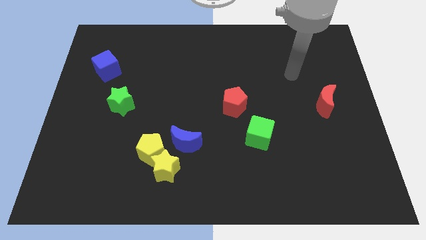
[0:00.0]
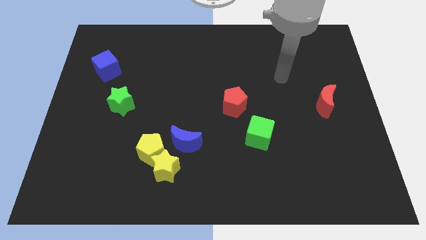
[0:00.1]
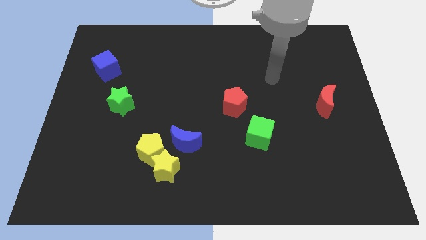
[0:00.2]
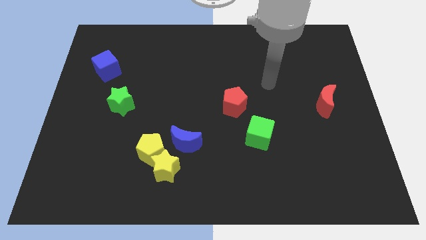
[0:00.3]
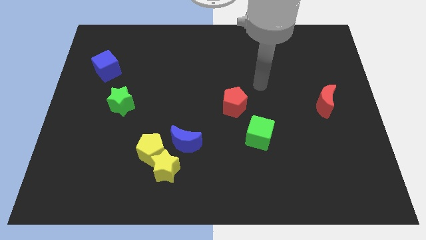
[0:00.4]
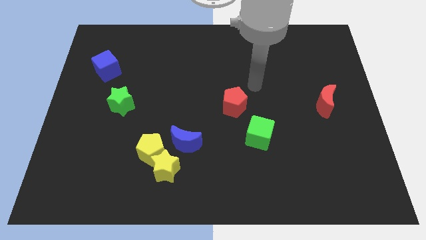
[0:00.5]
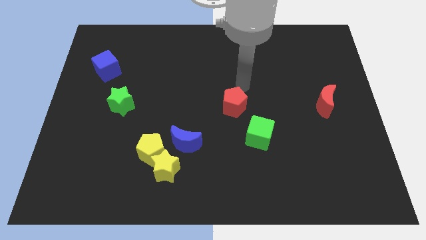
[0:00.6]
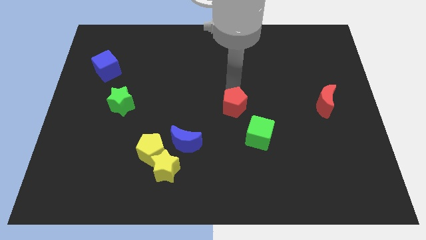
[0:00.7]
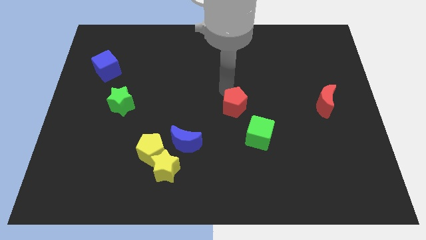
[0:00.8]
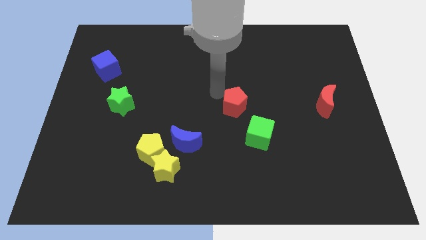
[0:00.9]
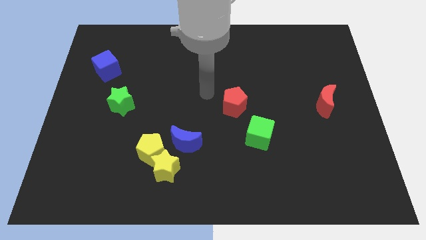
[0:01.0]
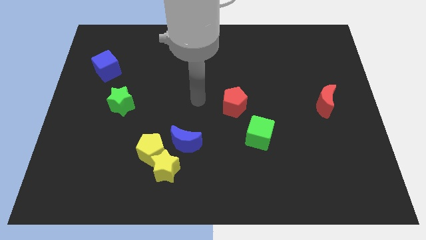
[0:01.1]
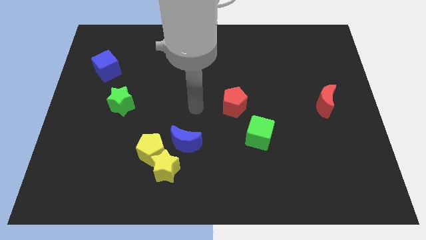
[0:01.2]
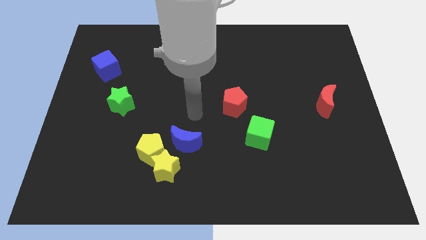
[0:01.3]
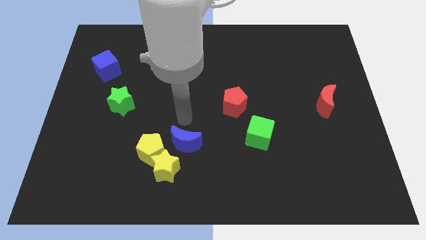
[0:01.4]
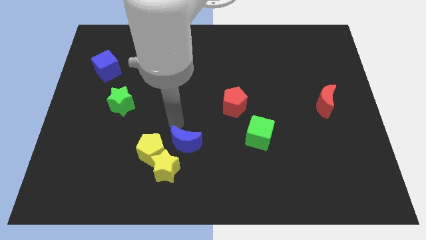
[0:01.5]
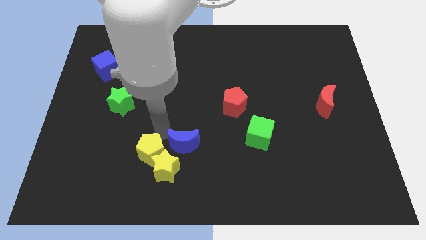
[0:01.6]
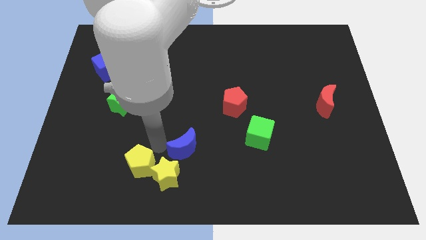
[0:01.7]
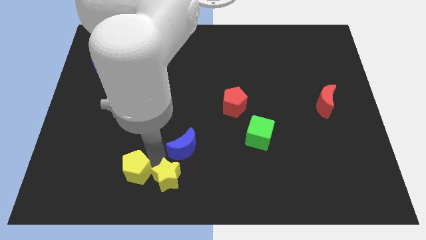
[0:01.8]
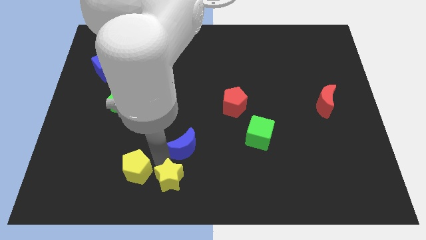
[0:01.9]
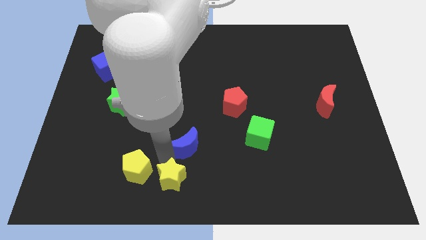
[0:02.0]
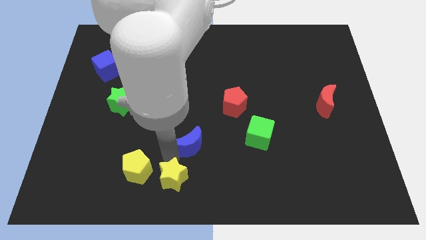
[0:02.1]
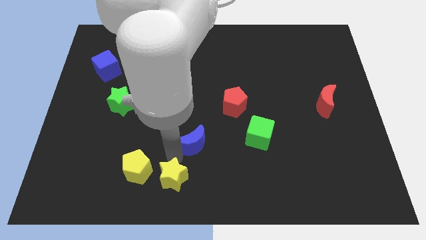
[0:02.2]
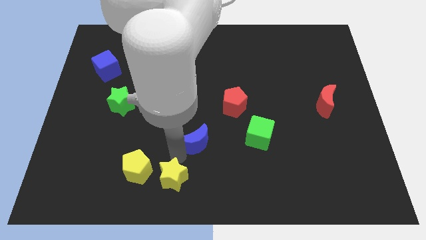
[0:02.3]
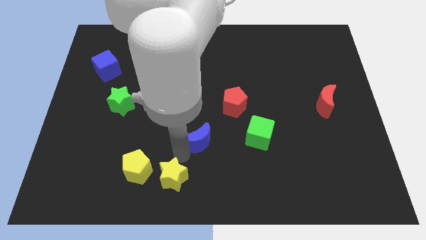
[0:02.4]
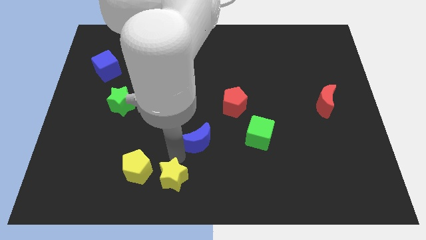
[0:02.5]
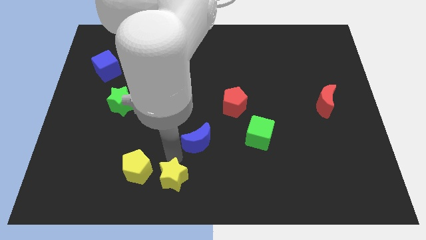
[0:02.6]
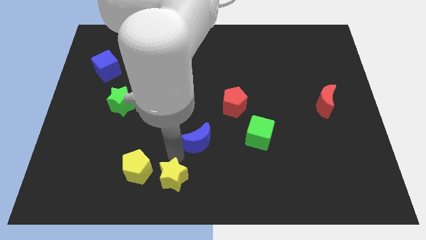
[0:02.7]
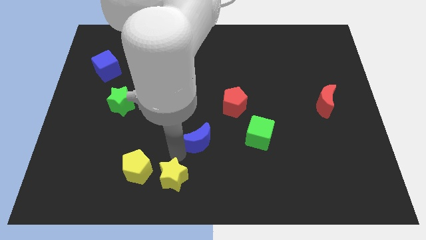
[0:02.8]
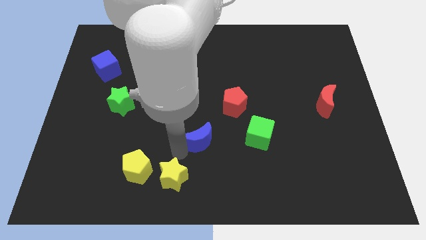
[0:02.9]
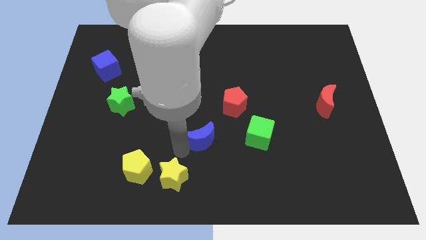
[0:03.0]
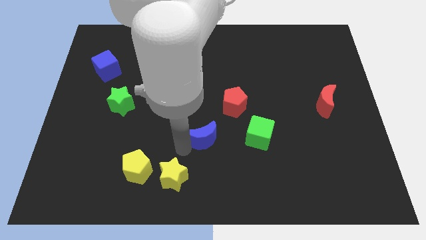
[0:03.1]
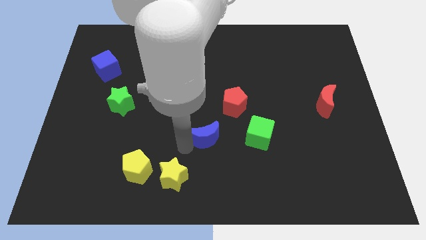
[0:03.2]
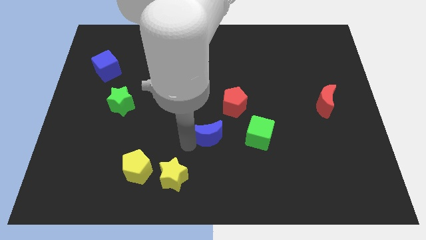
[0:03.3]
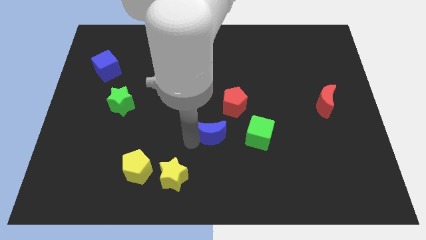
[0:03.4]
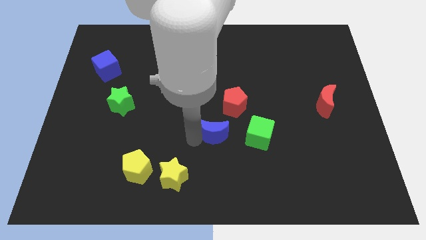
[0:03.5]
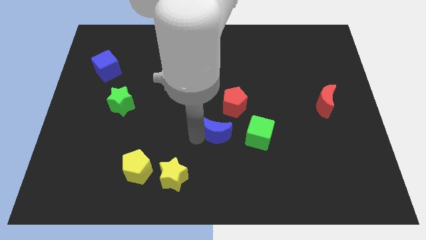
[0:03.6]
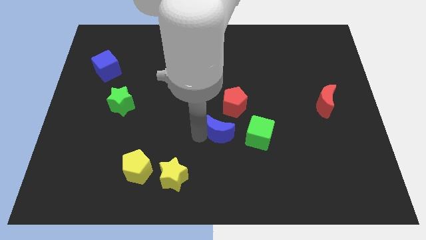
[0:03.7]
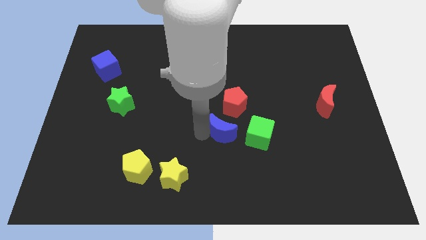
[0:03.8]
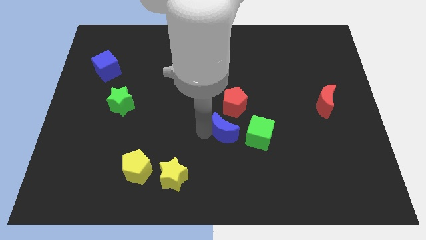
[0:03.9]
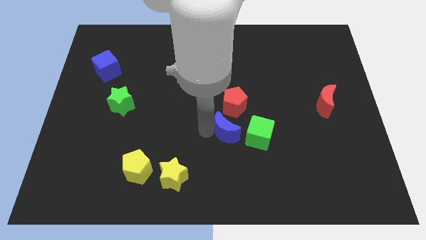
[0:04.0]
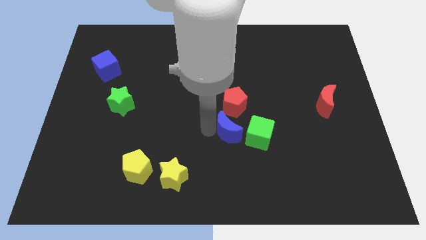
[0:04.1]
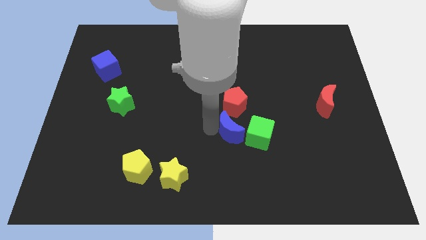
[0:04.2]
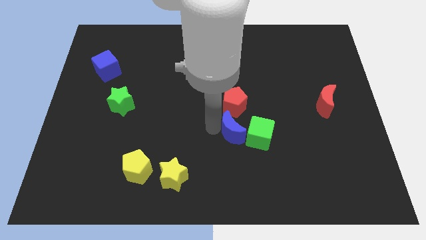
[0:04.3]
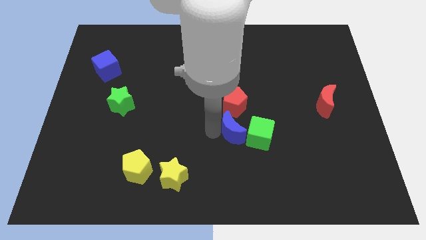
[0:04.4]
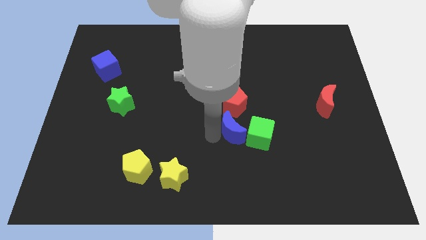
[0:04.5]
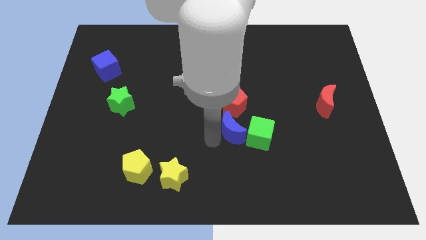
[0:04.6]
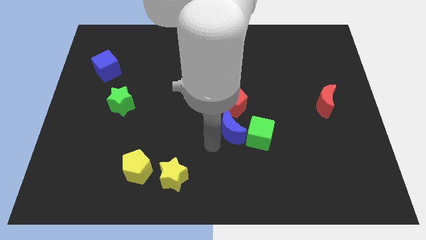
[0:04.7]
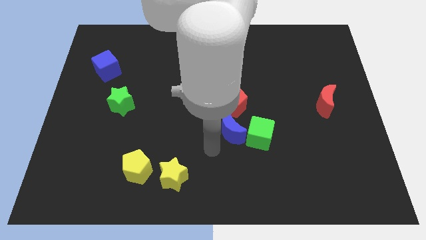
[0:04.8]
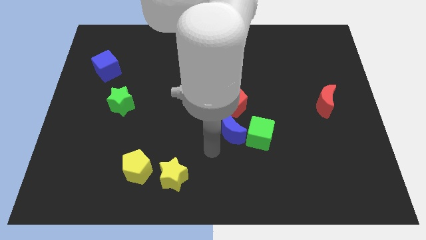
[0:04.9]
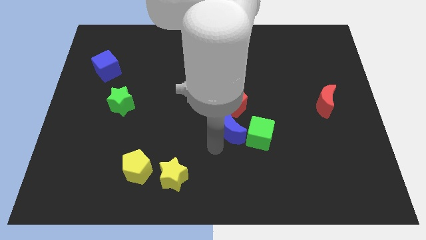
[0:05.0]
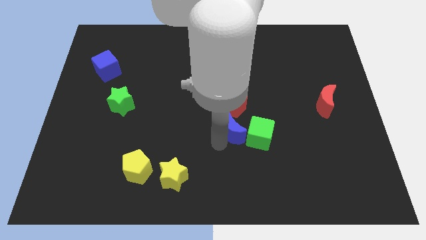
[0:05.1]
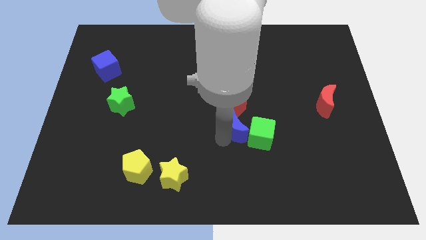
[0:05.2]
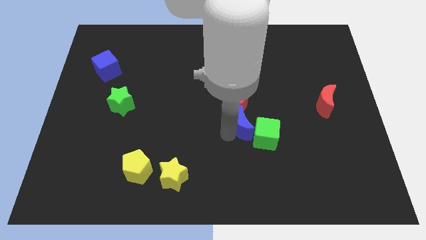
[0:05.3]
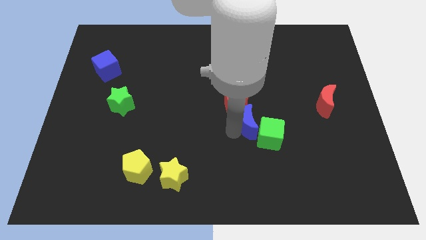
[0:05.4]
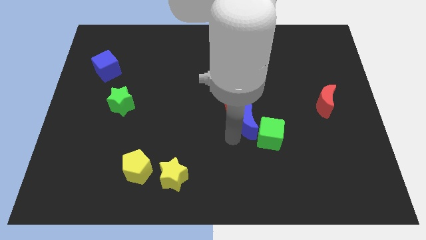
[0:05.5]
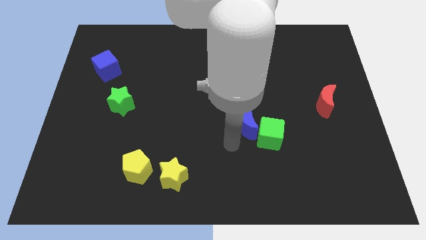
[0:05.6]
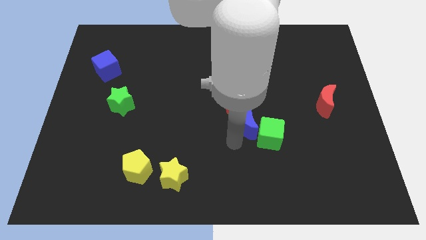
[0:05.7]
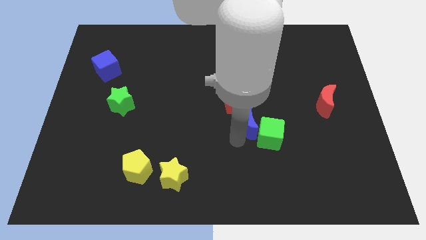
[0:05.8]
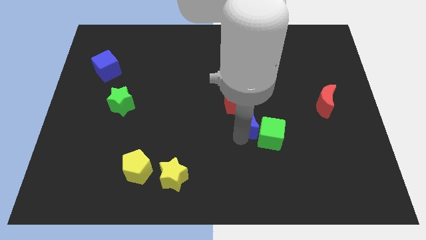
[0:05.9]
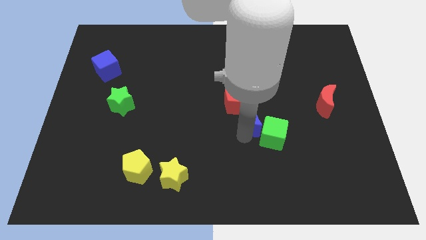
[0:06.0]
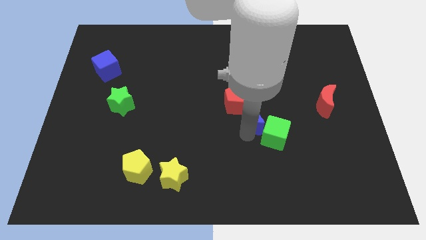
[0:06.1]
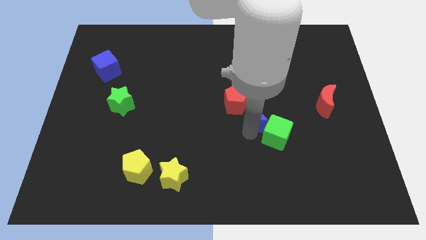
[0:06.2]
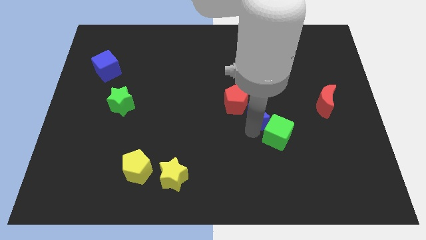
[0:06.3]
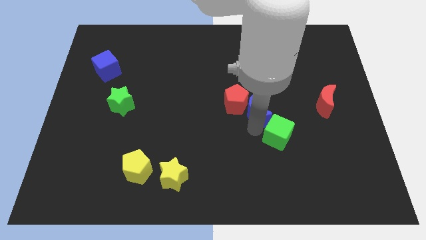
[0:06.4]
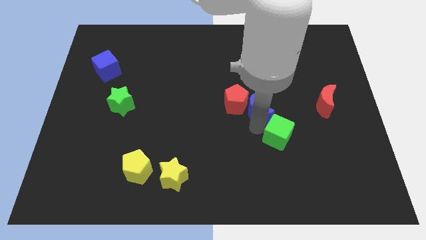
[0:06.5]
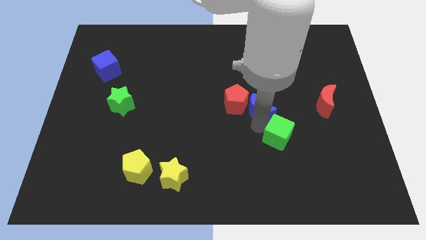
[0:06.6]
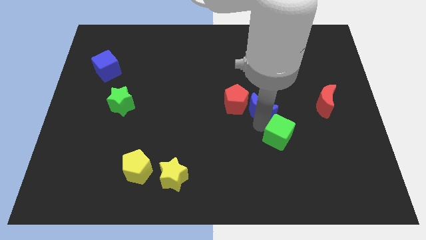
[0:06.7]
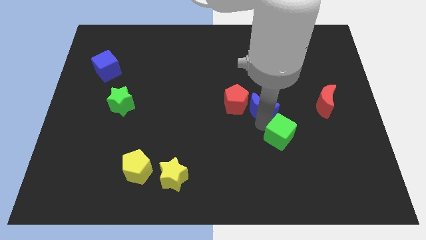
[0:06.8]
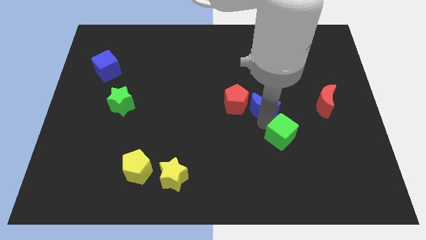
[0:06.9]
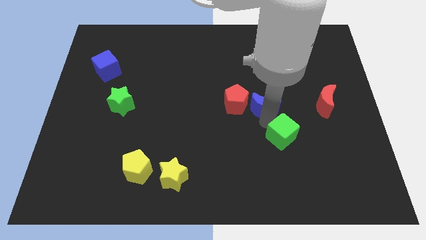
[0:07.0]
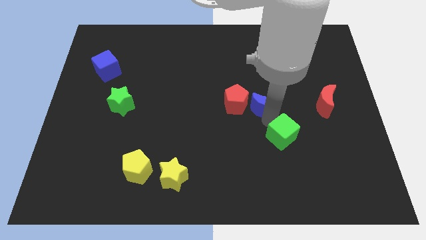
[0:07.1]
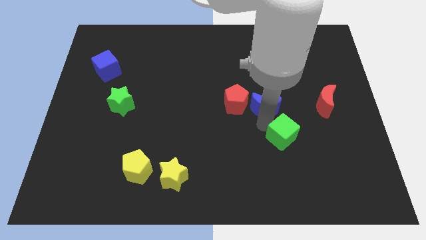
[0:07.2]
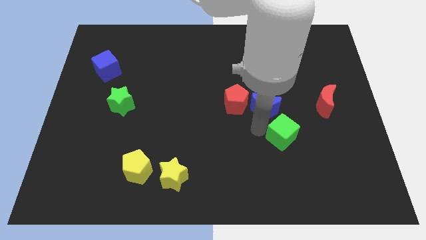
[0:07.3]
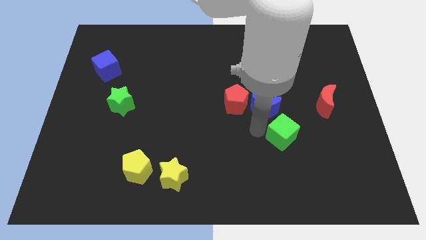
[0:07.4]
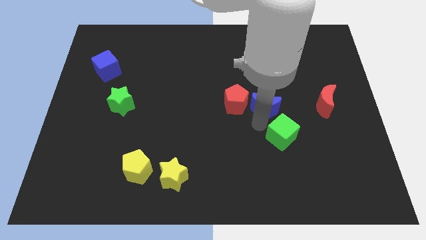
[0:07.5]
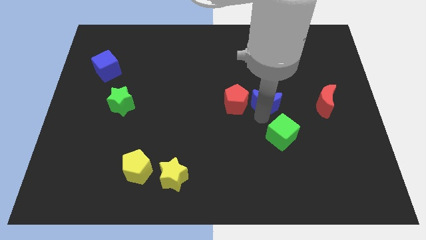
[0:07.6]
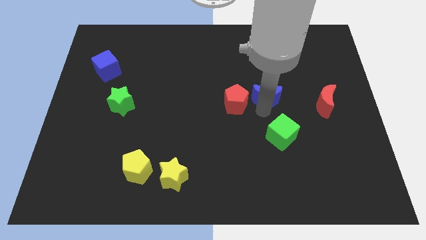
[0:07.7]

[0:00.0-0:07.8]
move the blue moon upwards and to the right
